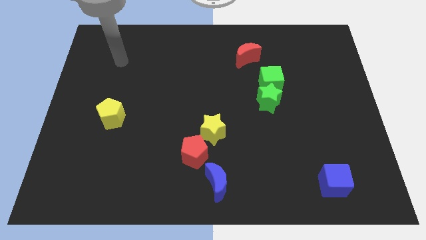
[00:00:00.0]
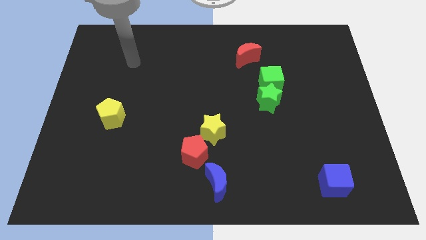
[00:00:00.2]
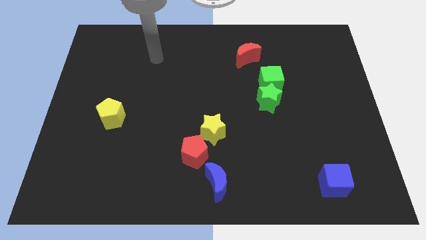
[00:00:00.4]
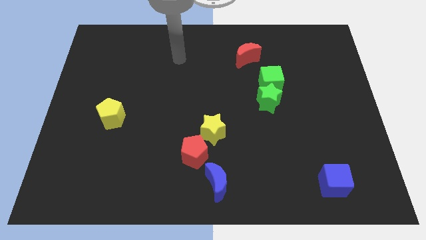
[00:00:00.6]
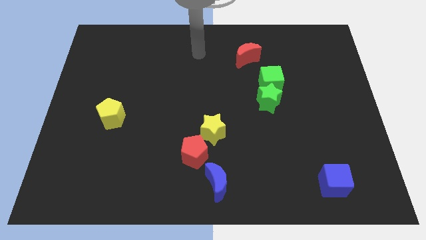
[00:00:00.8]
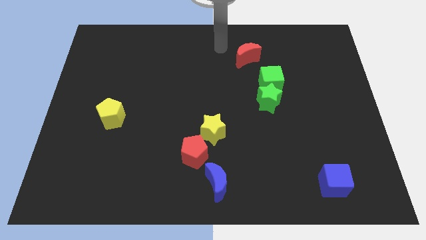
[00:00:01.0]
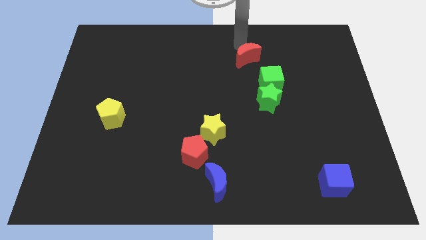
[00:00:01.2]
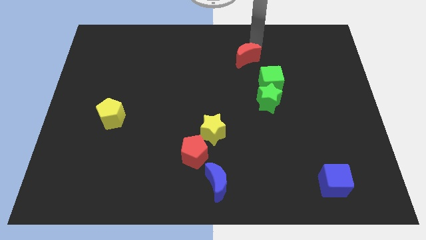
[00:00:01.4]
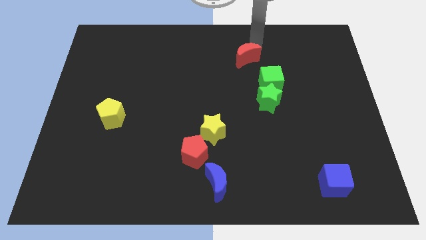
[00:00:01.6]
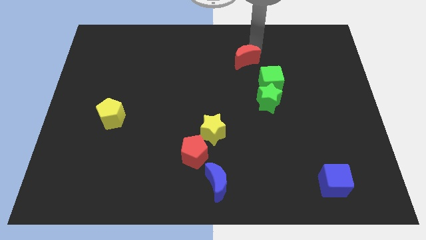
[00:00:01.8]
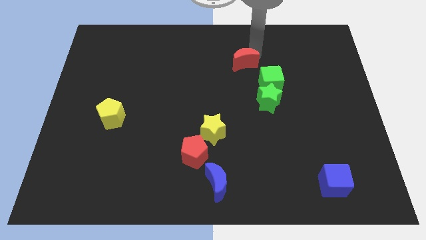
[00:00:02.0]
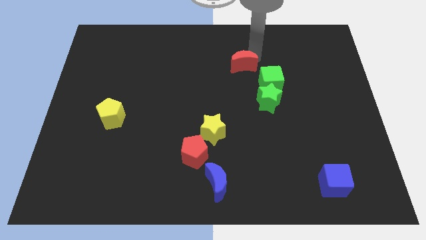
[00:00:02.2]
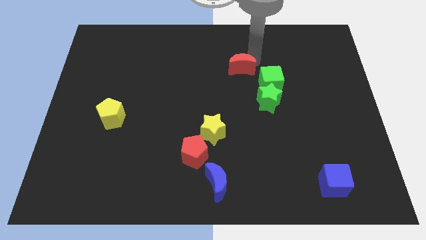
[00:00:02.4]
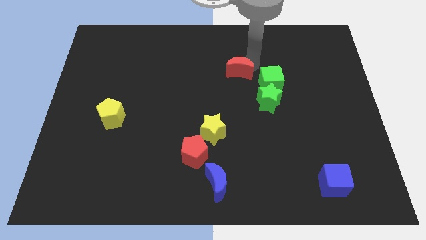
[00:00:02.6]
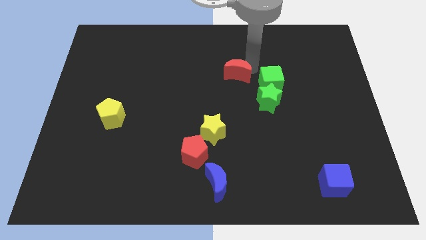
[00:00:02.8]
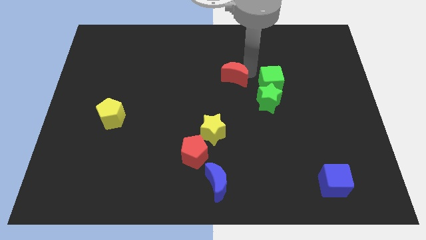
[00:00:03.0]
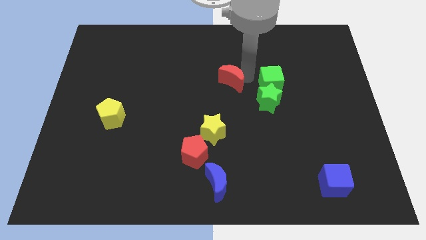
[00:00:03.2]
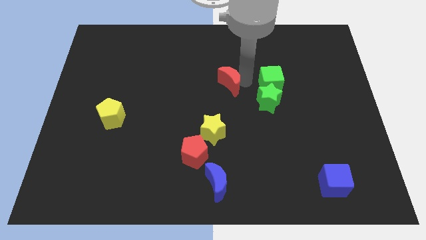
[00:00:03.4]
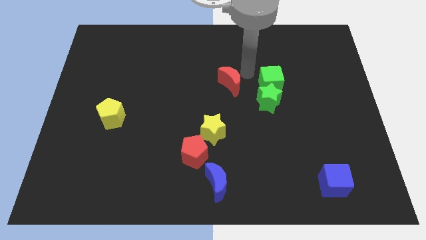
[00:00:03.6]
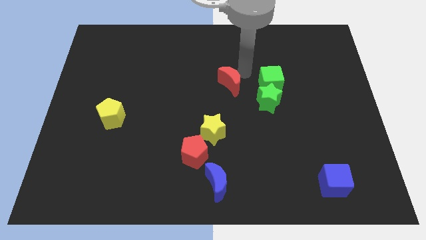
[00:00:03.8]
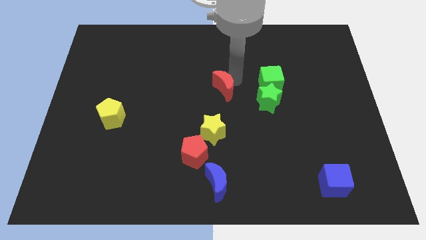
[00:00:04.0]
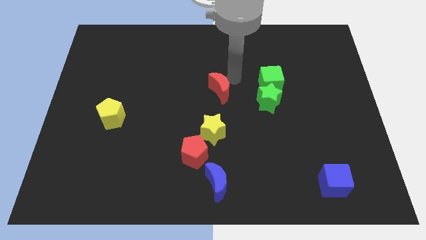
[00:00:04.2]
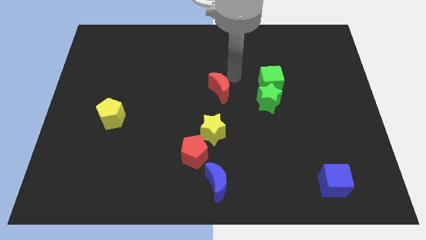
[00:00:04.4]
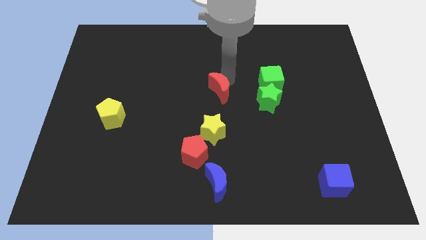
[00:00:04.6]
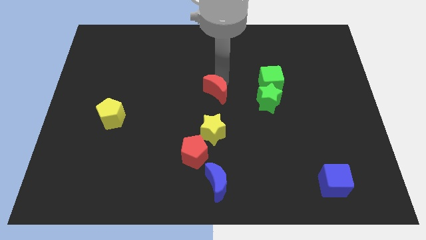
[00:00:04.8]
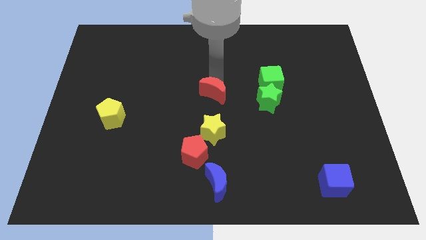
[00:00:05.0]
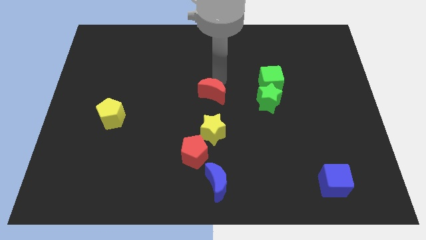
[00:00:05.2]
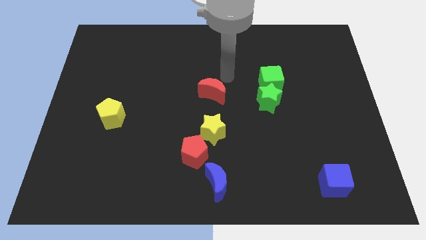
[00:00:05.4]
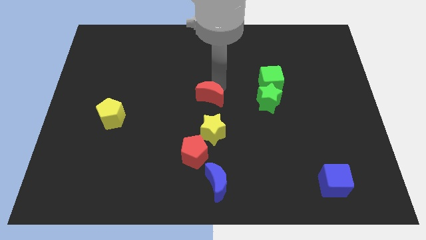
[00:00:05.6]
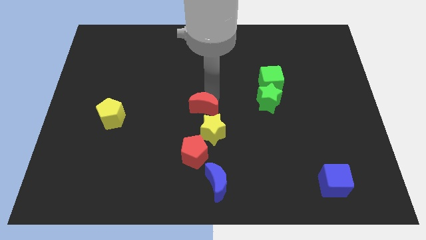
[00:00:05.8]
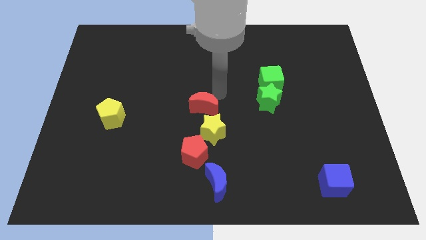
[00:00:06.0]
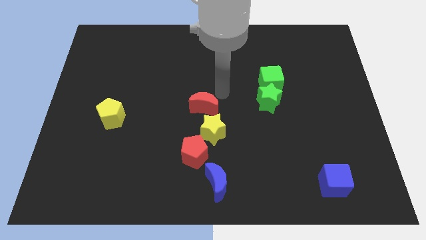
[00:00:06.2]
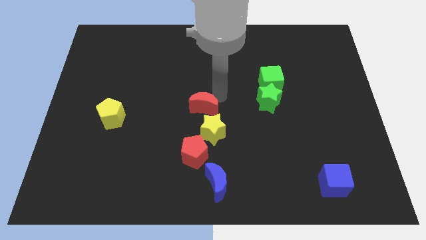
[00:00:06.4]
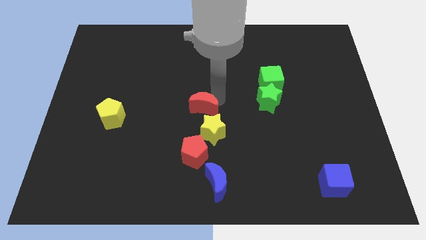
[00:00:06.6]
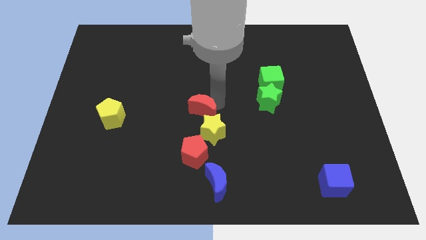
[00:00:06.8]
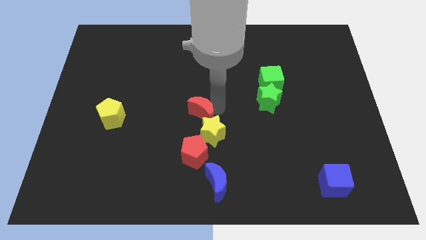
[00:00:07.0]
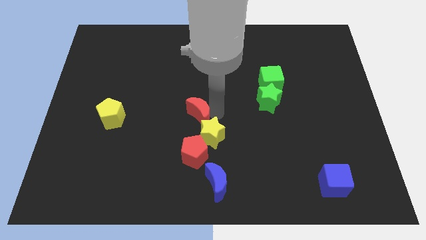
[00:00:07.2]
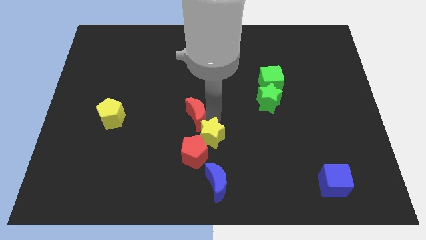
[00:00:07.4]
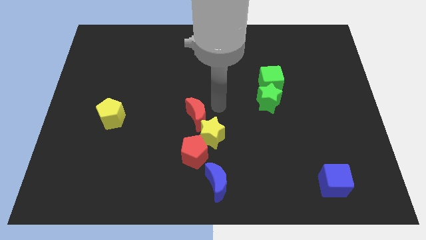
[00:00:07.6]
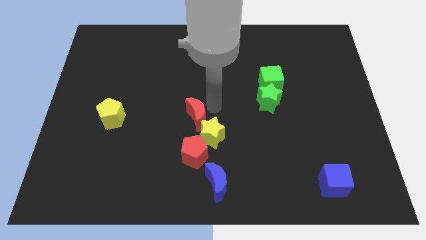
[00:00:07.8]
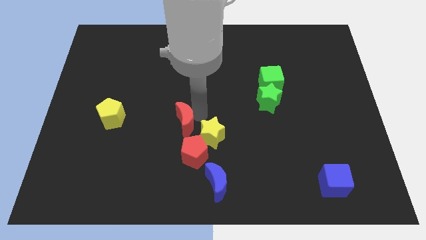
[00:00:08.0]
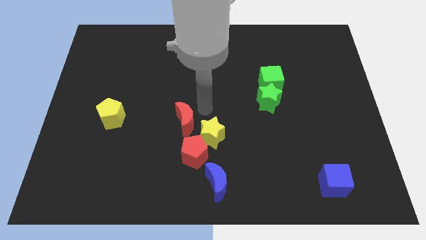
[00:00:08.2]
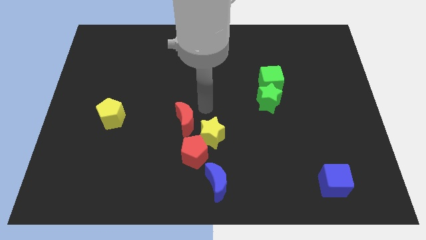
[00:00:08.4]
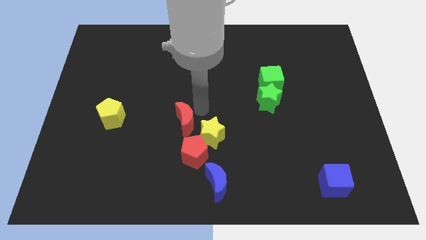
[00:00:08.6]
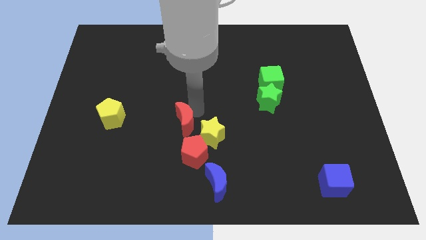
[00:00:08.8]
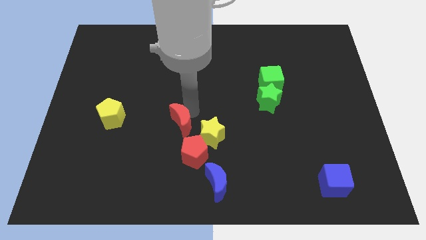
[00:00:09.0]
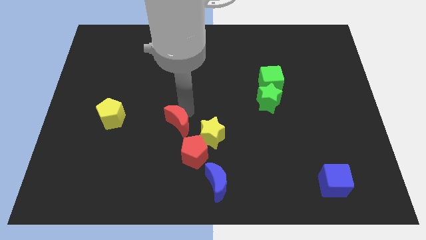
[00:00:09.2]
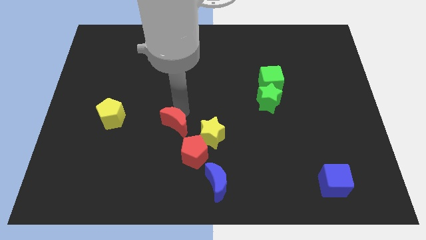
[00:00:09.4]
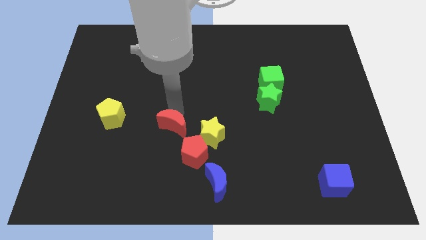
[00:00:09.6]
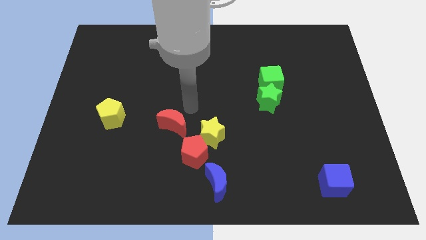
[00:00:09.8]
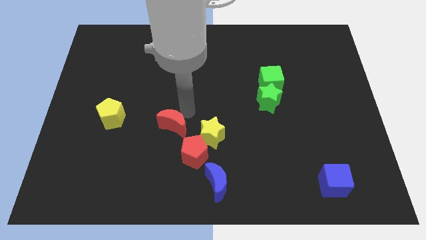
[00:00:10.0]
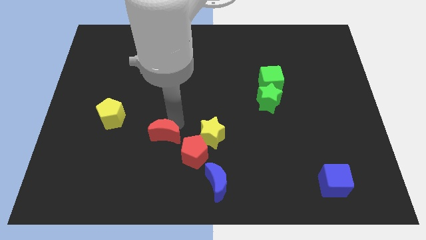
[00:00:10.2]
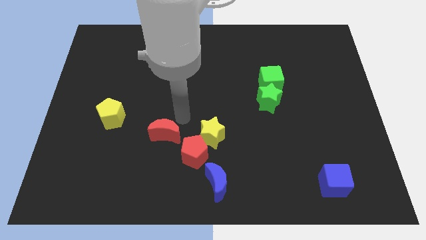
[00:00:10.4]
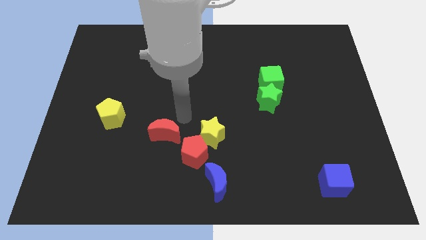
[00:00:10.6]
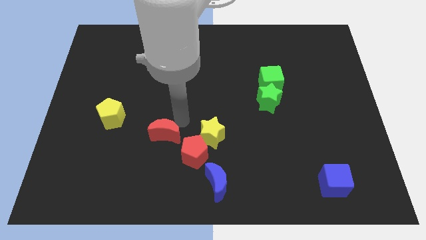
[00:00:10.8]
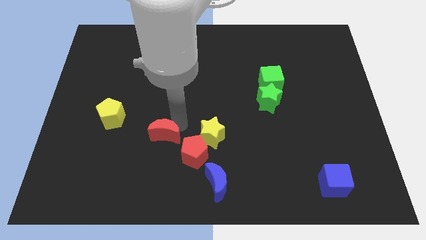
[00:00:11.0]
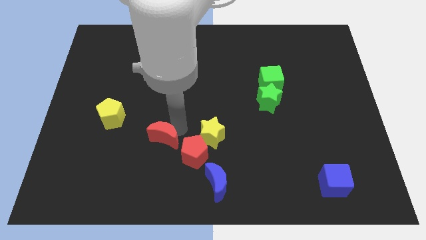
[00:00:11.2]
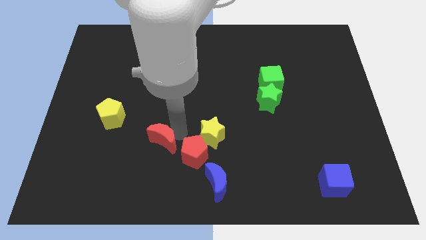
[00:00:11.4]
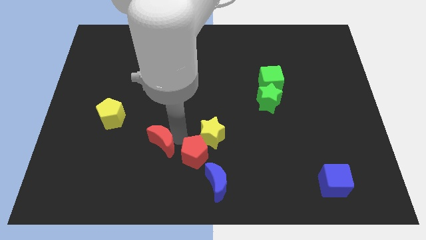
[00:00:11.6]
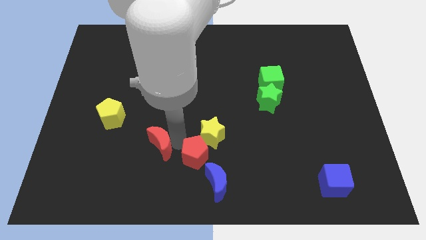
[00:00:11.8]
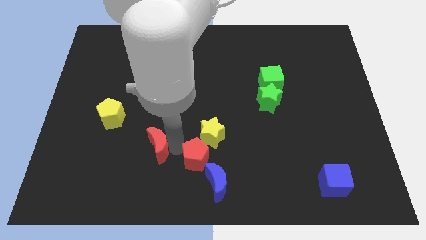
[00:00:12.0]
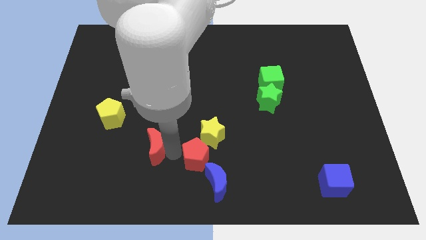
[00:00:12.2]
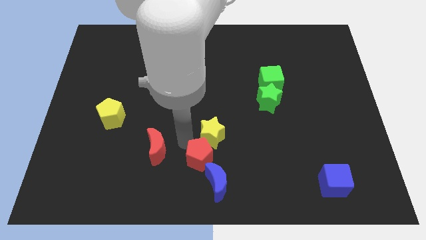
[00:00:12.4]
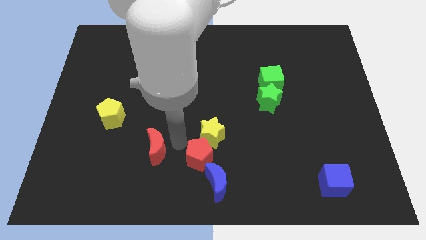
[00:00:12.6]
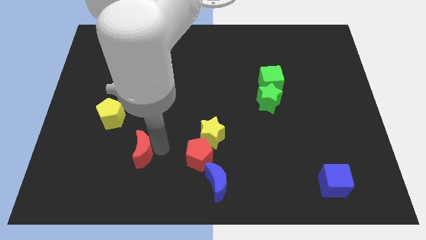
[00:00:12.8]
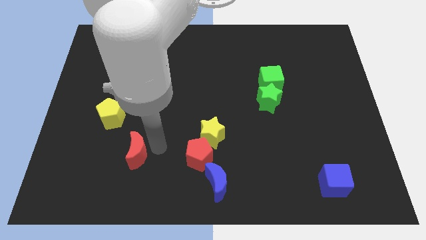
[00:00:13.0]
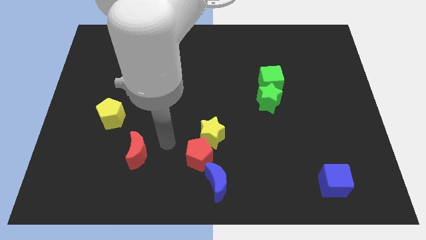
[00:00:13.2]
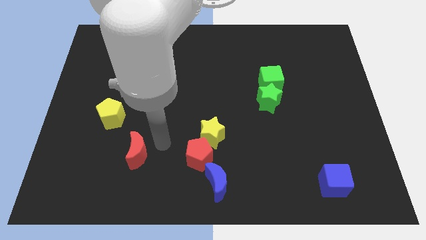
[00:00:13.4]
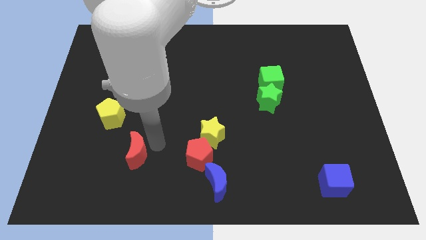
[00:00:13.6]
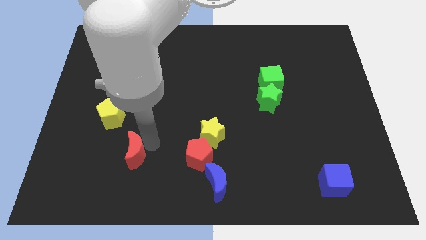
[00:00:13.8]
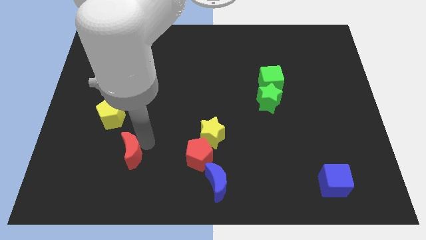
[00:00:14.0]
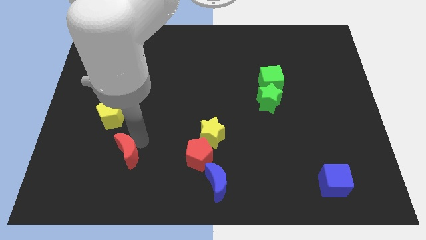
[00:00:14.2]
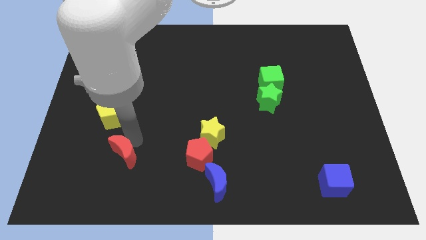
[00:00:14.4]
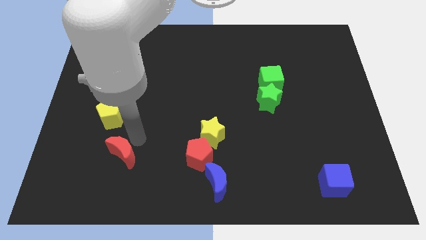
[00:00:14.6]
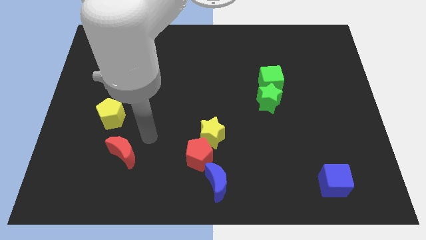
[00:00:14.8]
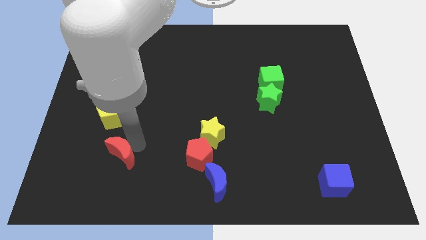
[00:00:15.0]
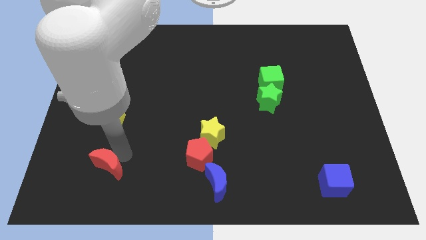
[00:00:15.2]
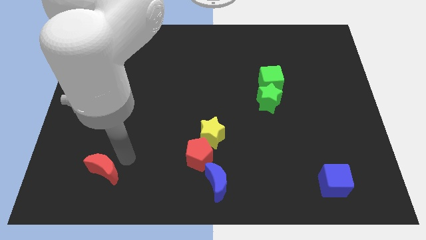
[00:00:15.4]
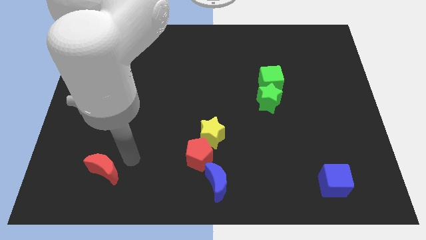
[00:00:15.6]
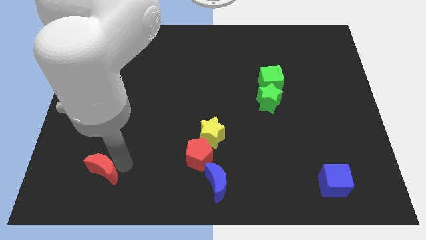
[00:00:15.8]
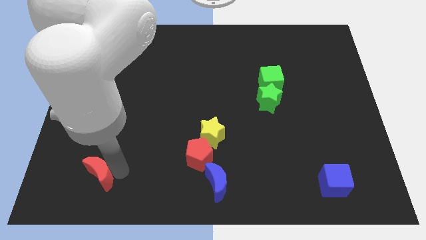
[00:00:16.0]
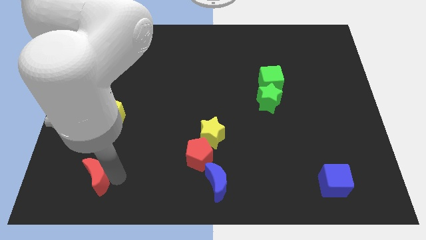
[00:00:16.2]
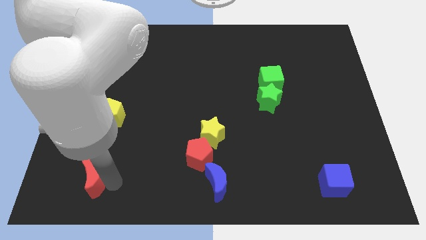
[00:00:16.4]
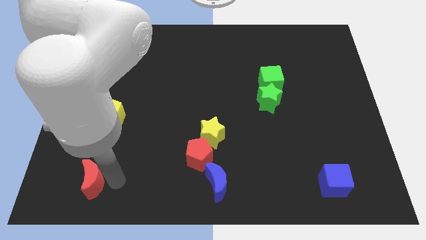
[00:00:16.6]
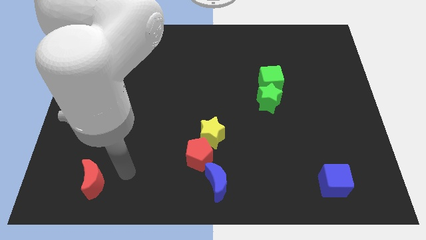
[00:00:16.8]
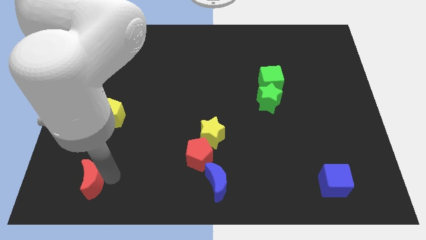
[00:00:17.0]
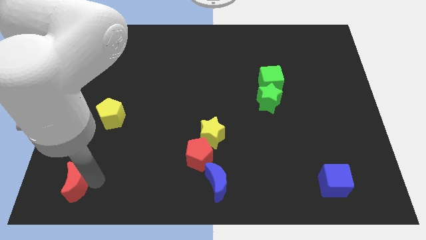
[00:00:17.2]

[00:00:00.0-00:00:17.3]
push the red moon to the bottom left
